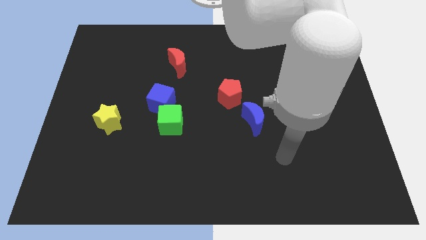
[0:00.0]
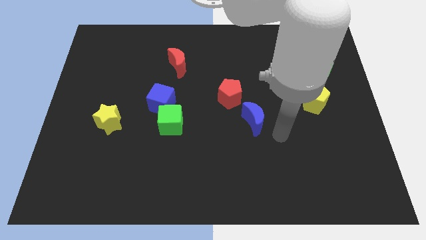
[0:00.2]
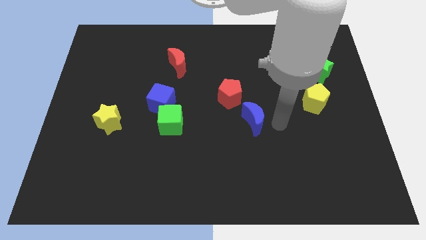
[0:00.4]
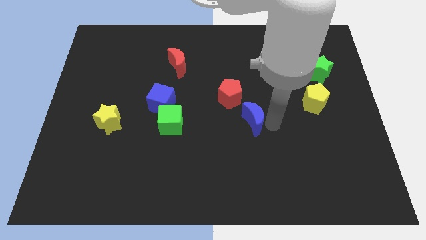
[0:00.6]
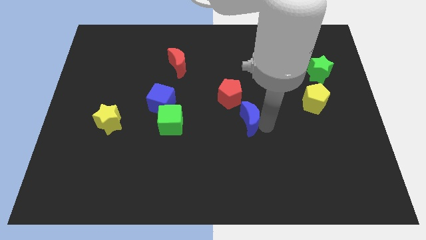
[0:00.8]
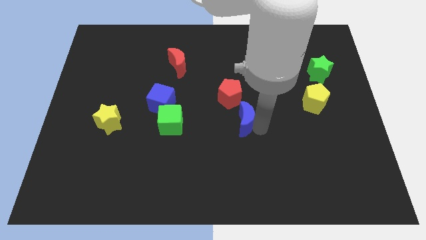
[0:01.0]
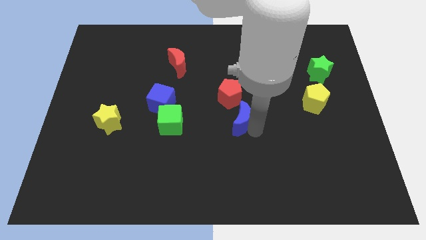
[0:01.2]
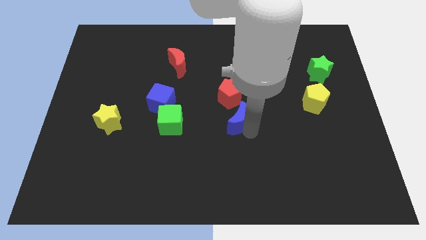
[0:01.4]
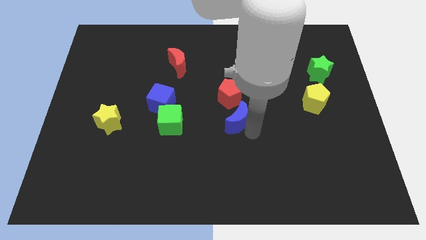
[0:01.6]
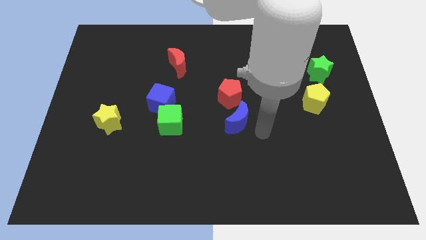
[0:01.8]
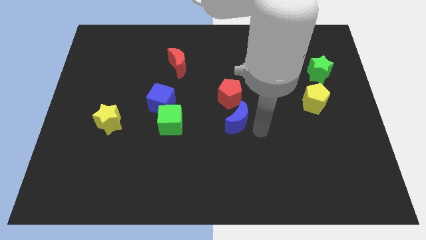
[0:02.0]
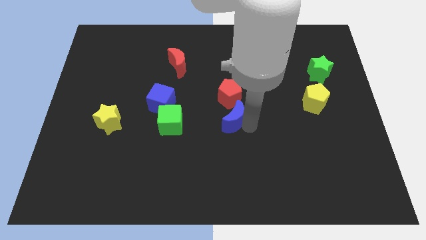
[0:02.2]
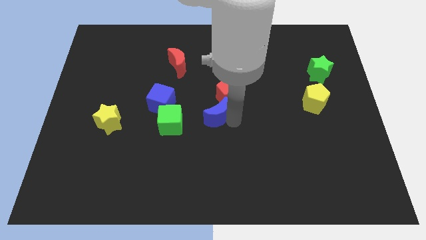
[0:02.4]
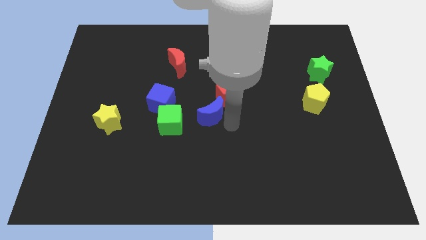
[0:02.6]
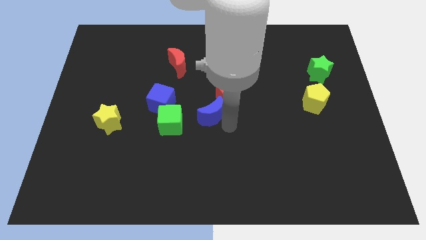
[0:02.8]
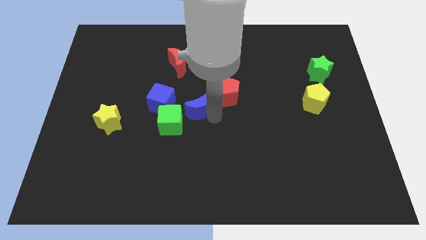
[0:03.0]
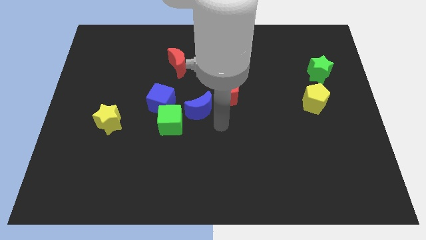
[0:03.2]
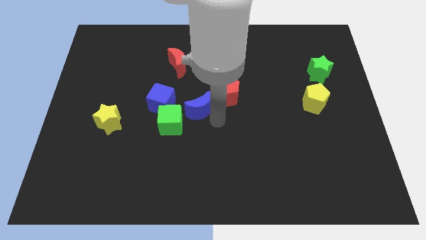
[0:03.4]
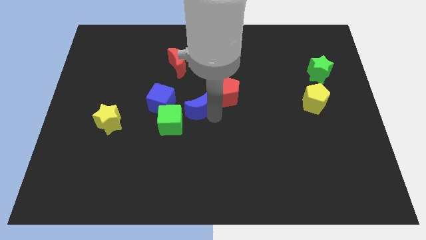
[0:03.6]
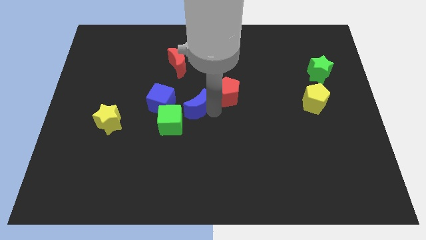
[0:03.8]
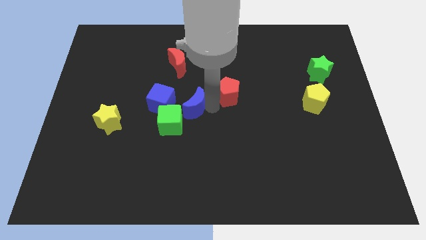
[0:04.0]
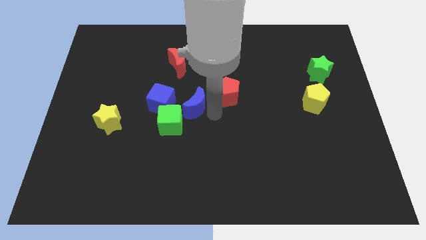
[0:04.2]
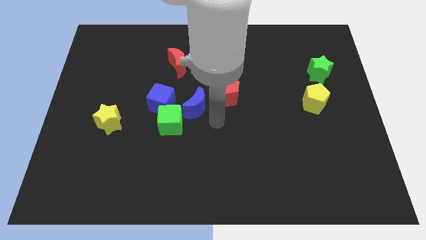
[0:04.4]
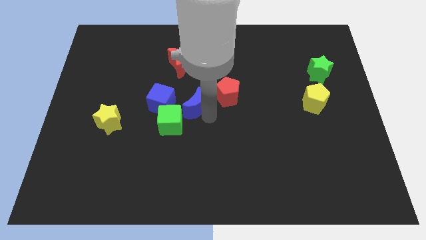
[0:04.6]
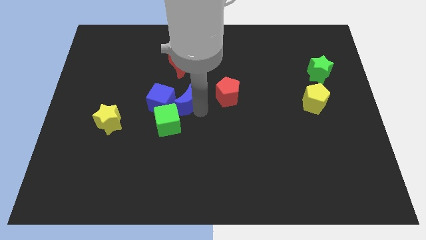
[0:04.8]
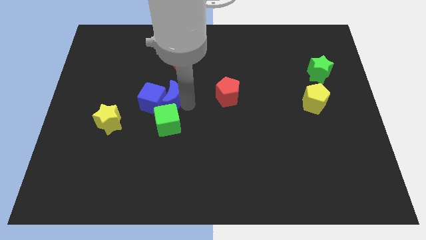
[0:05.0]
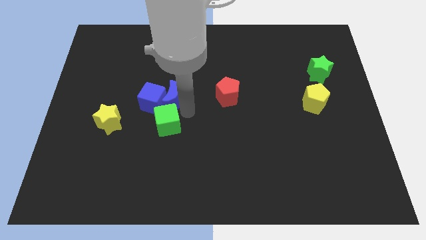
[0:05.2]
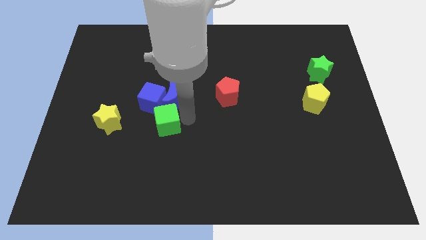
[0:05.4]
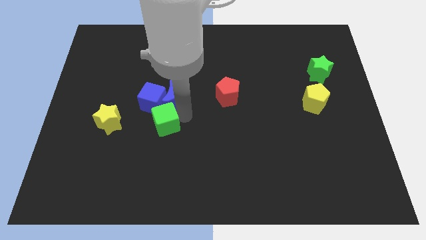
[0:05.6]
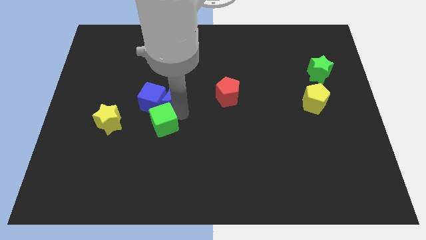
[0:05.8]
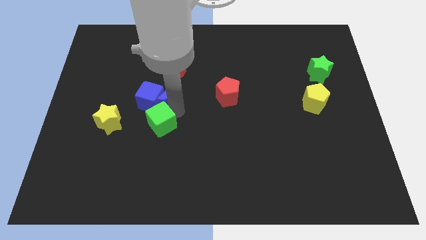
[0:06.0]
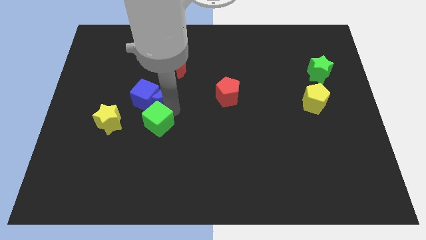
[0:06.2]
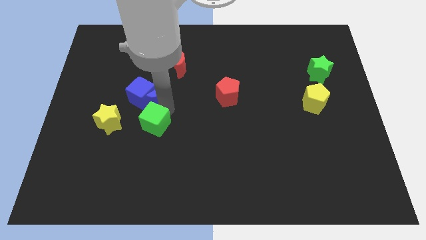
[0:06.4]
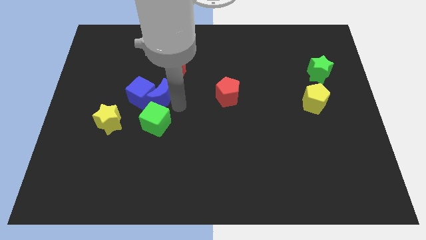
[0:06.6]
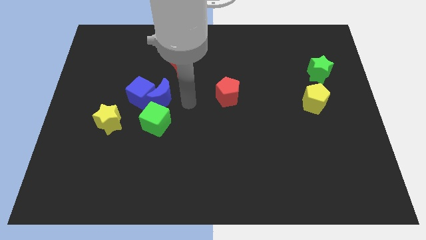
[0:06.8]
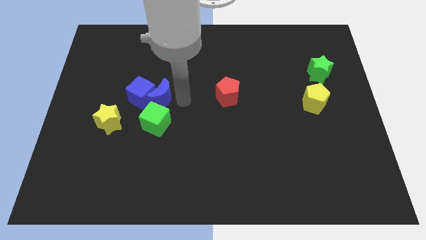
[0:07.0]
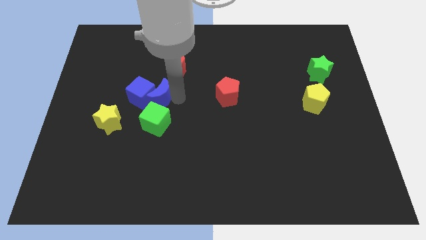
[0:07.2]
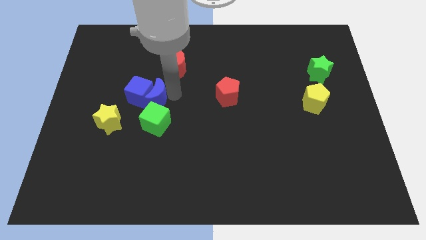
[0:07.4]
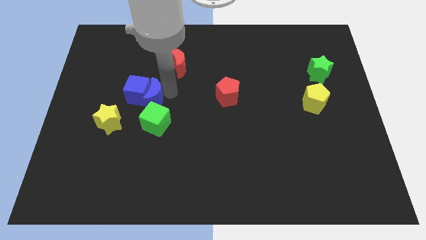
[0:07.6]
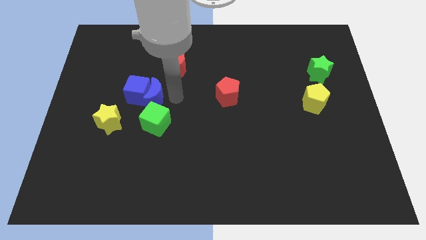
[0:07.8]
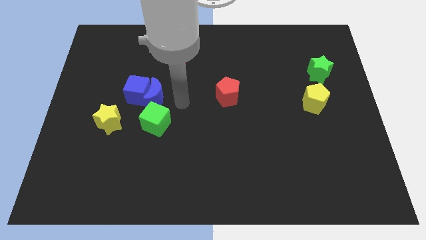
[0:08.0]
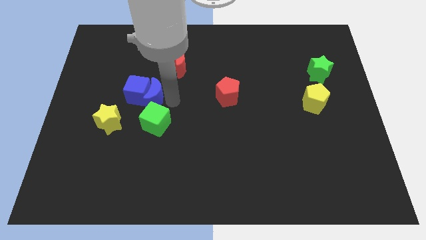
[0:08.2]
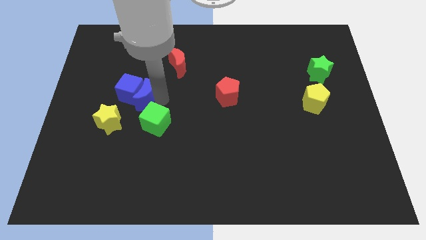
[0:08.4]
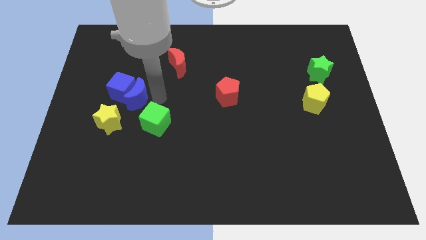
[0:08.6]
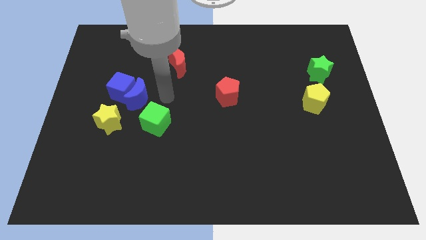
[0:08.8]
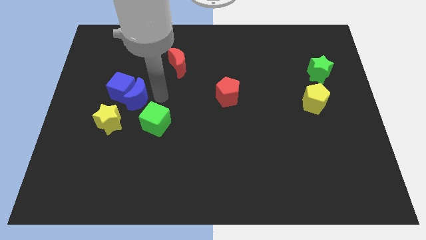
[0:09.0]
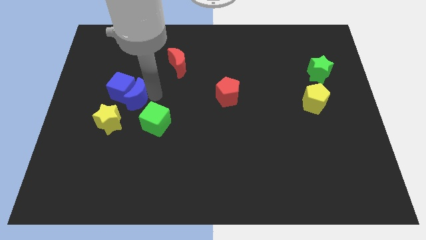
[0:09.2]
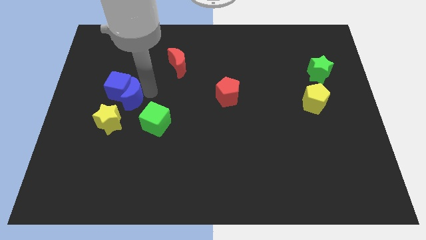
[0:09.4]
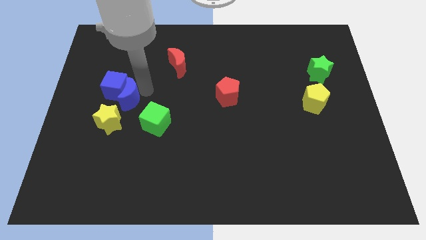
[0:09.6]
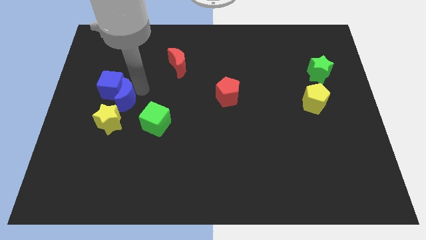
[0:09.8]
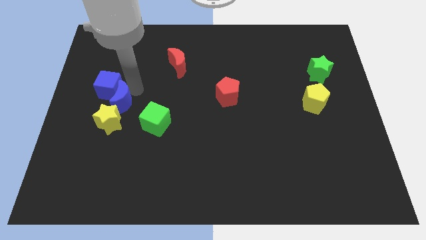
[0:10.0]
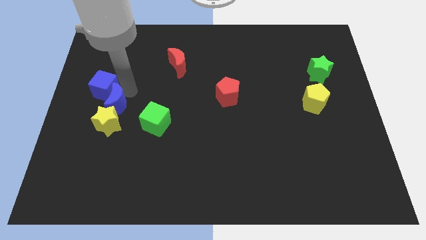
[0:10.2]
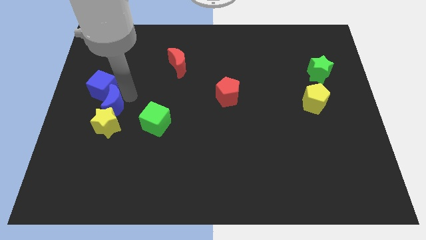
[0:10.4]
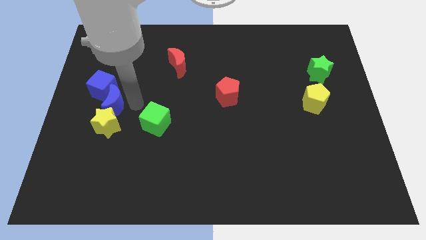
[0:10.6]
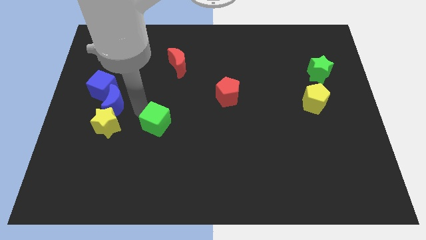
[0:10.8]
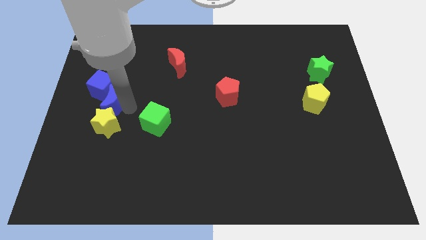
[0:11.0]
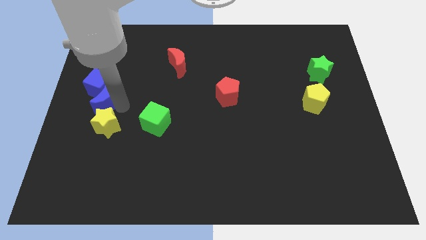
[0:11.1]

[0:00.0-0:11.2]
put the blue moon to the left side of the board

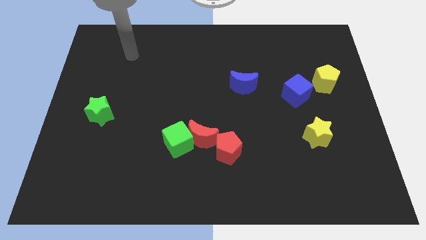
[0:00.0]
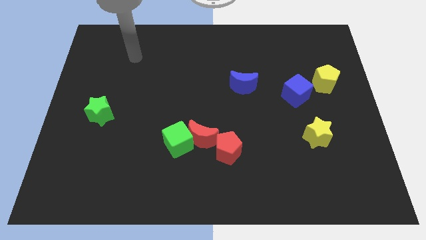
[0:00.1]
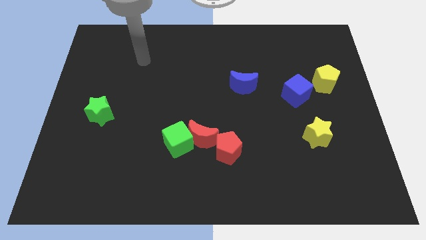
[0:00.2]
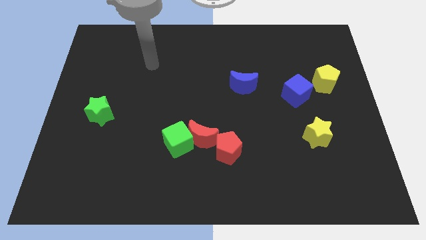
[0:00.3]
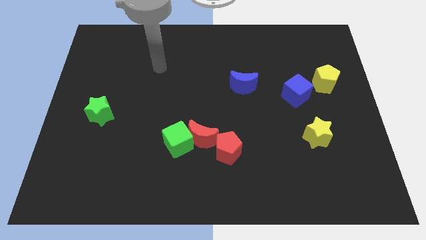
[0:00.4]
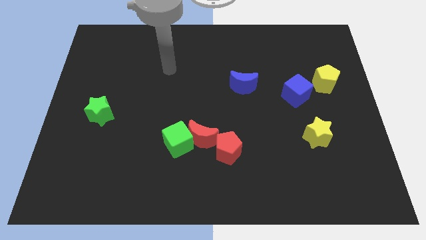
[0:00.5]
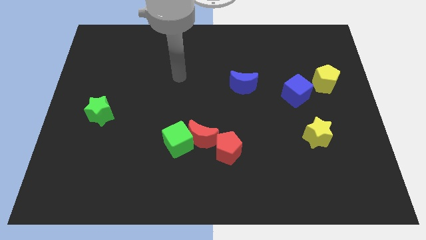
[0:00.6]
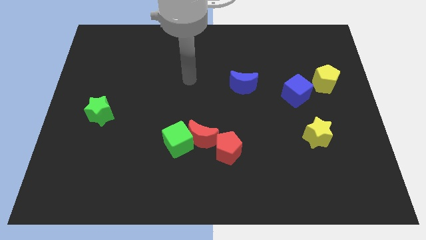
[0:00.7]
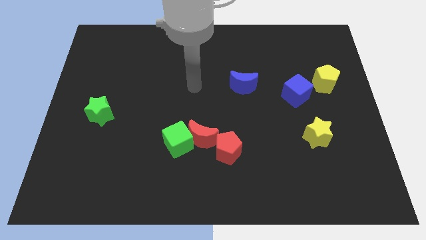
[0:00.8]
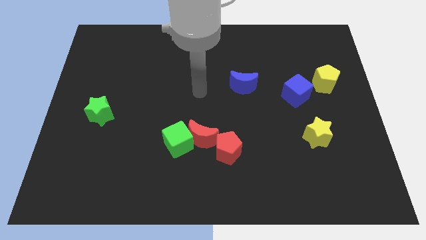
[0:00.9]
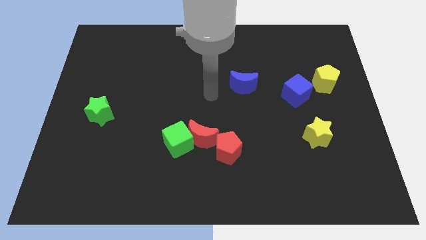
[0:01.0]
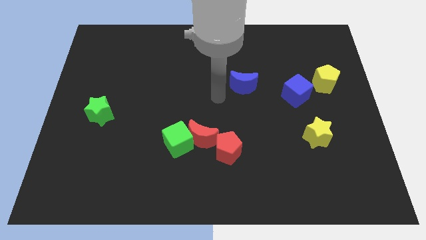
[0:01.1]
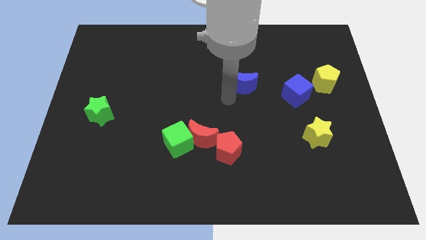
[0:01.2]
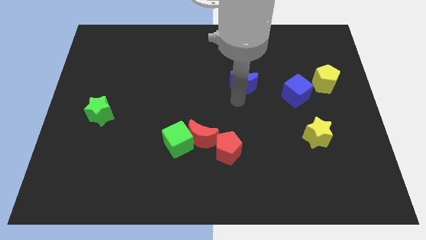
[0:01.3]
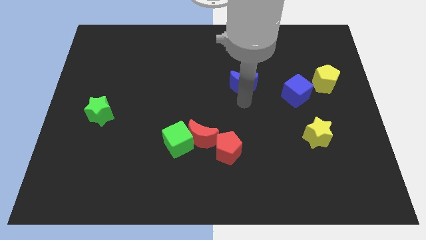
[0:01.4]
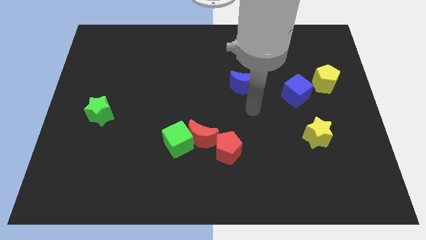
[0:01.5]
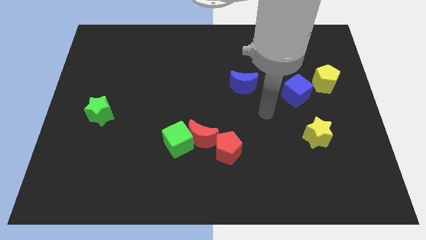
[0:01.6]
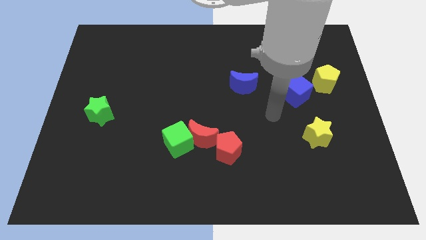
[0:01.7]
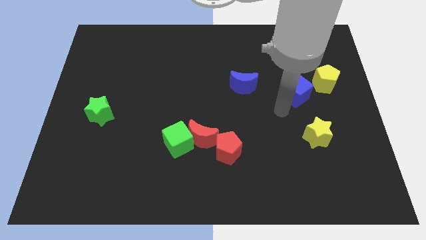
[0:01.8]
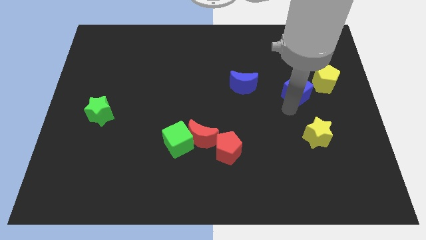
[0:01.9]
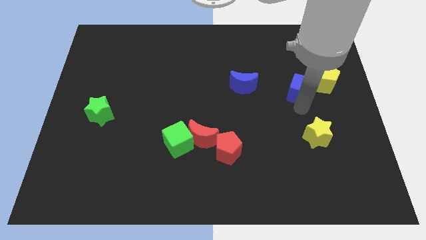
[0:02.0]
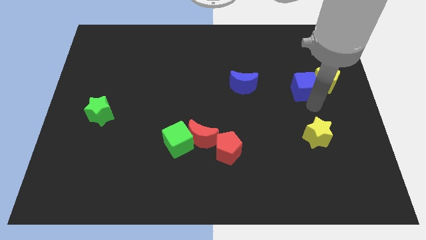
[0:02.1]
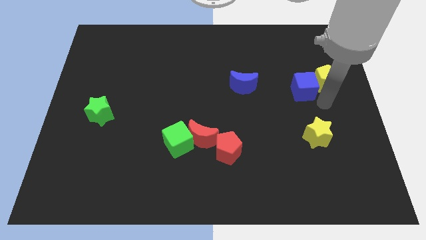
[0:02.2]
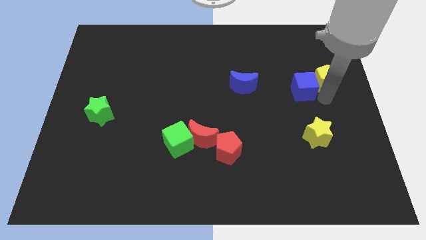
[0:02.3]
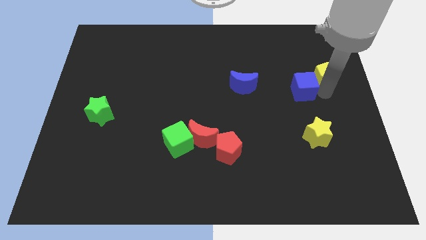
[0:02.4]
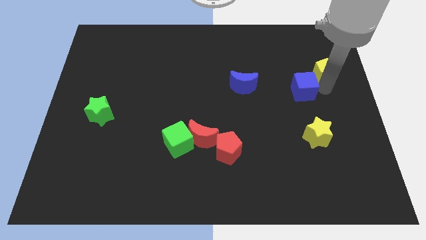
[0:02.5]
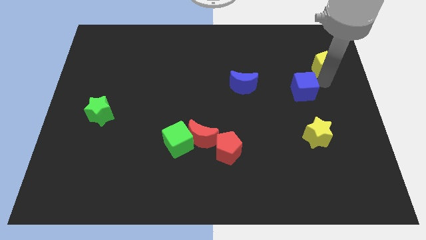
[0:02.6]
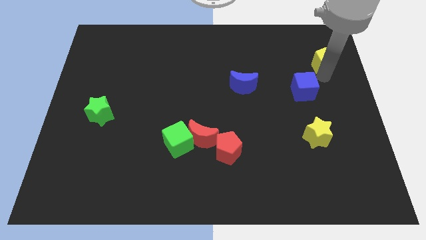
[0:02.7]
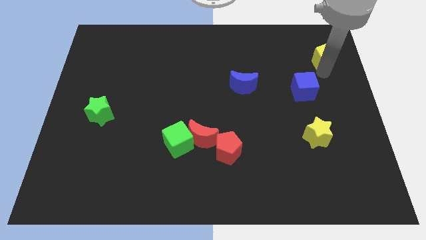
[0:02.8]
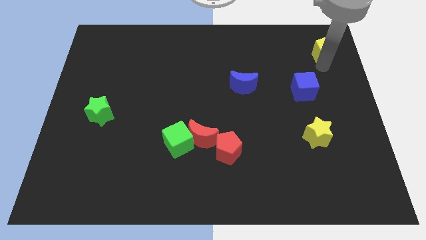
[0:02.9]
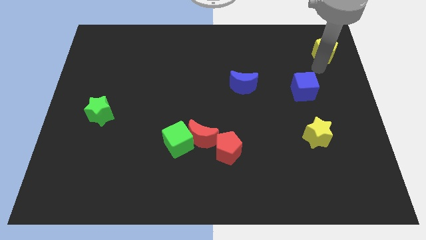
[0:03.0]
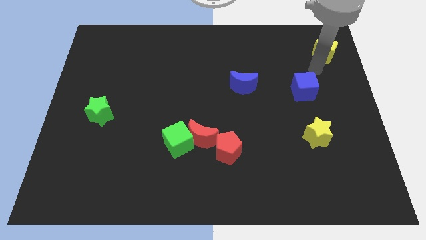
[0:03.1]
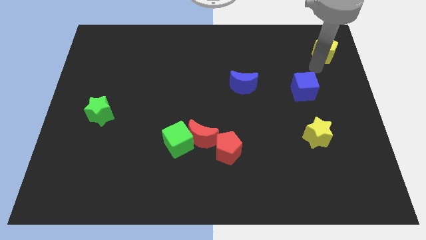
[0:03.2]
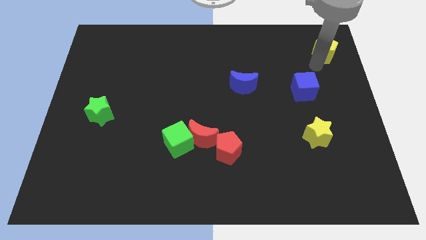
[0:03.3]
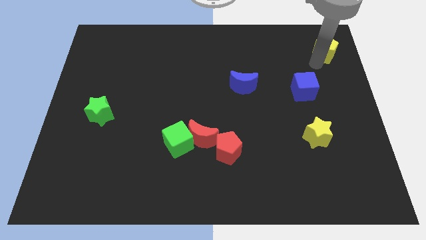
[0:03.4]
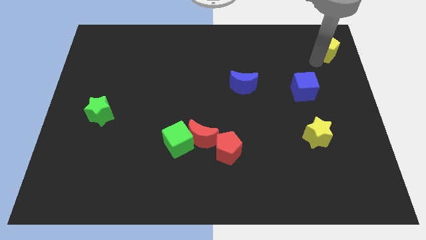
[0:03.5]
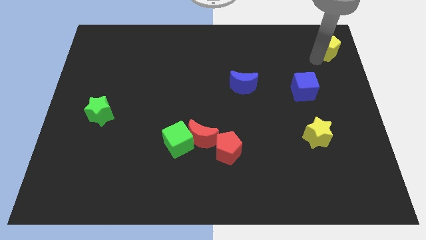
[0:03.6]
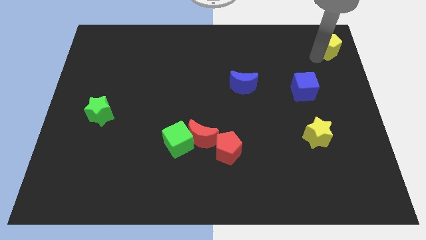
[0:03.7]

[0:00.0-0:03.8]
push the yellow pentagon to the top right corner
